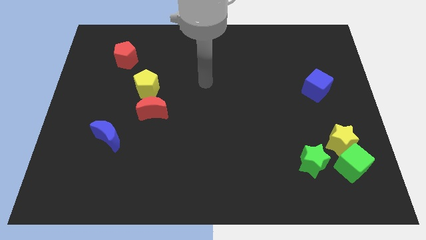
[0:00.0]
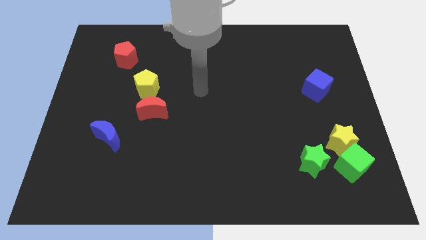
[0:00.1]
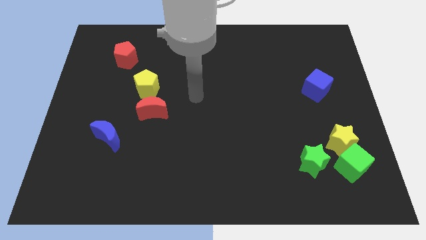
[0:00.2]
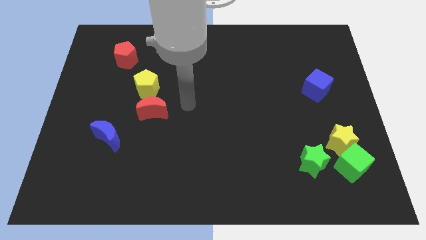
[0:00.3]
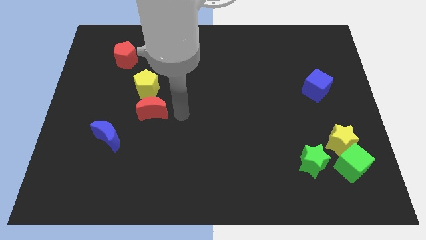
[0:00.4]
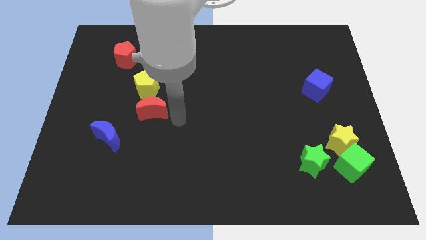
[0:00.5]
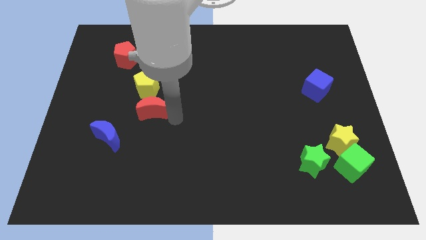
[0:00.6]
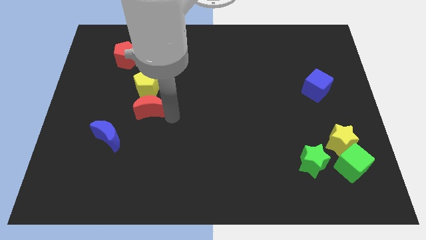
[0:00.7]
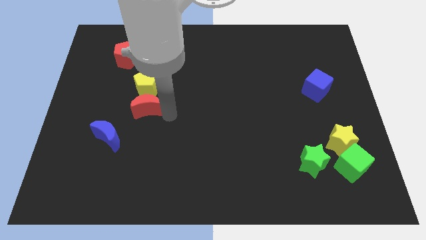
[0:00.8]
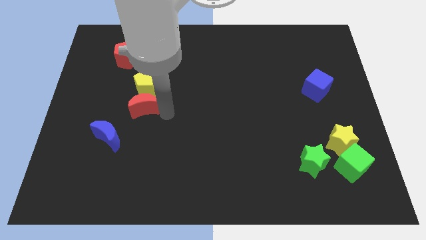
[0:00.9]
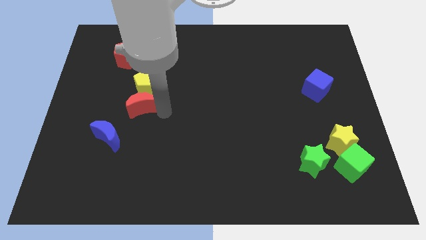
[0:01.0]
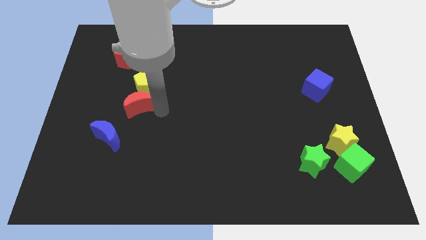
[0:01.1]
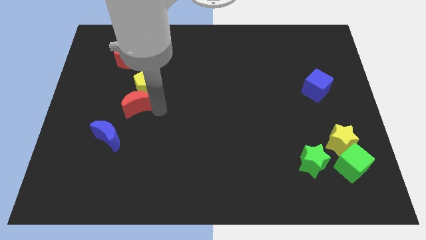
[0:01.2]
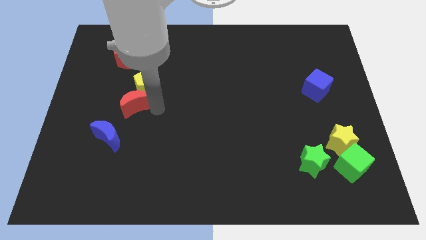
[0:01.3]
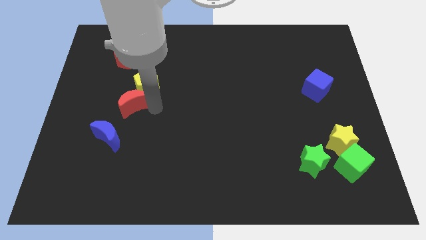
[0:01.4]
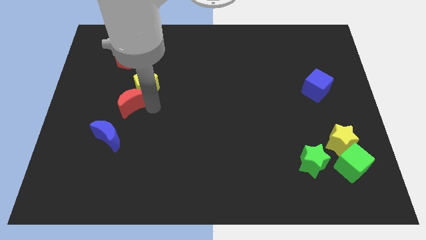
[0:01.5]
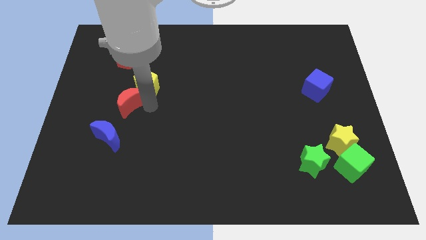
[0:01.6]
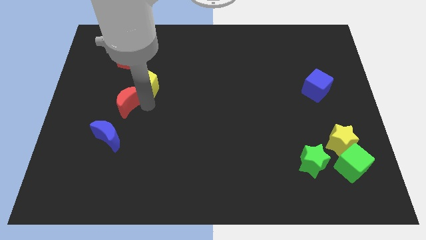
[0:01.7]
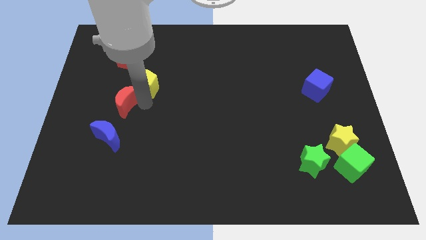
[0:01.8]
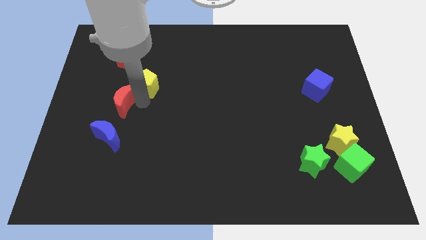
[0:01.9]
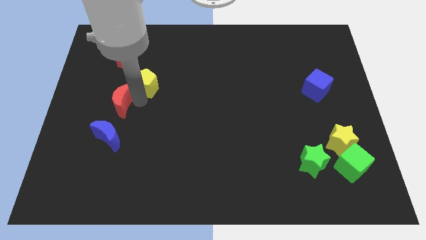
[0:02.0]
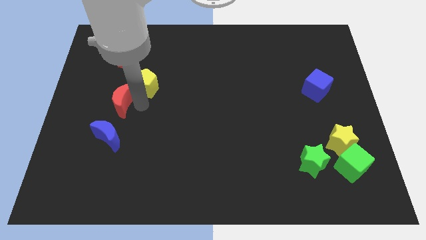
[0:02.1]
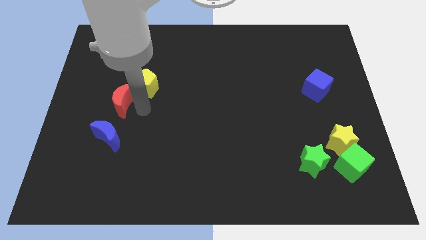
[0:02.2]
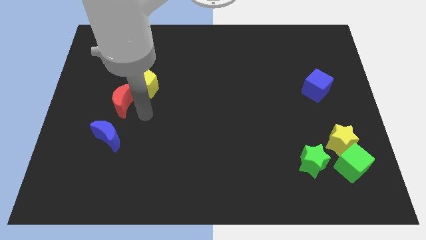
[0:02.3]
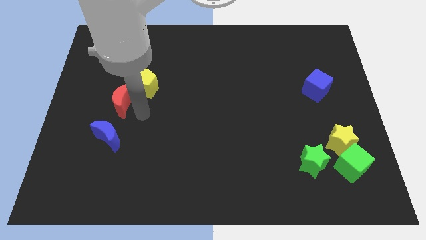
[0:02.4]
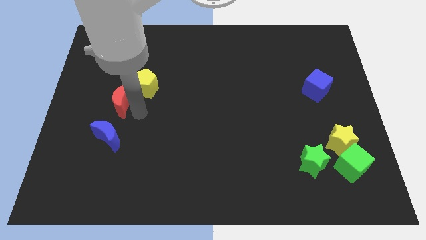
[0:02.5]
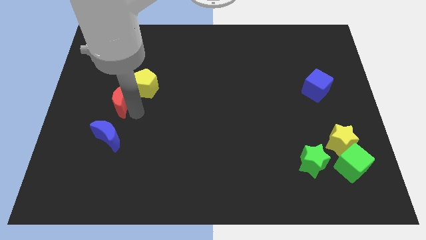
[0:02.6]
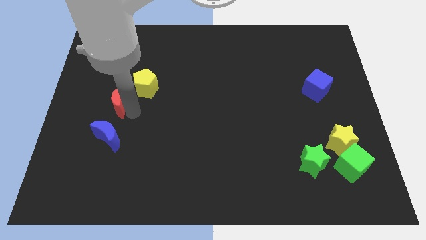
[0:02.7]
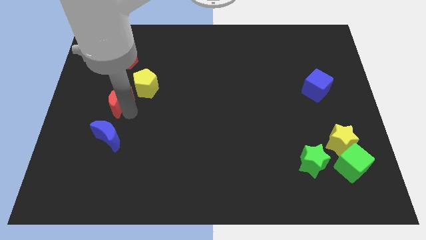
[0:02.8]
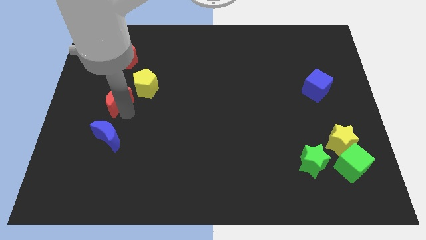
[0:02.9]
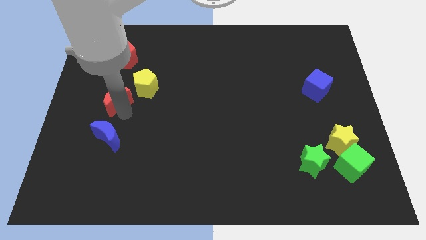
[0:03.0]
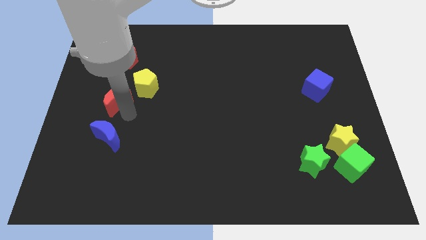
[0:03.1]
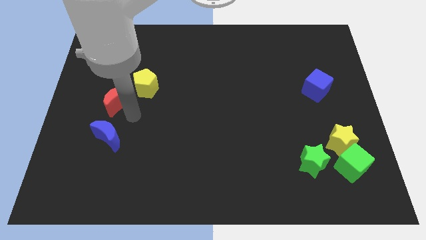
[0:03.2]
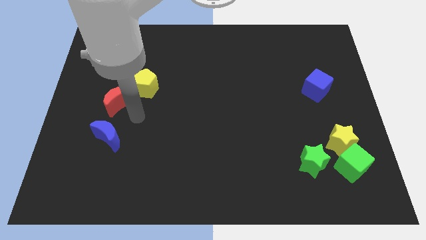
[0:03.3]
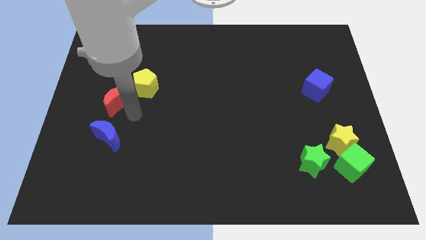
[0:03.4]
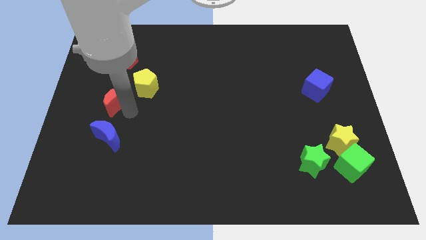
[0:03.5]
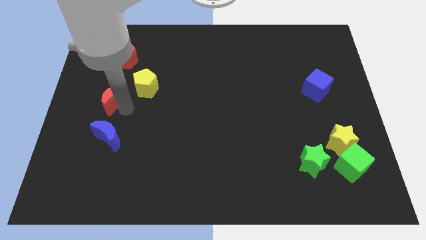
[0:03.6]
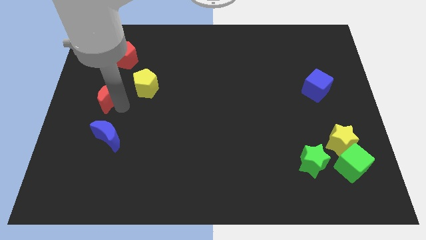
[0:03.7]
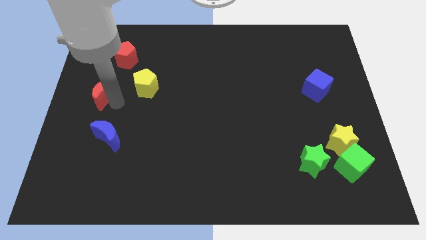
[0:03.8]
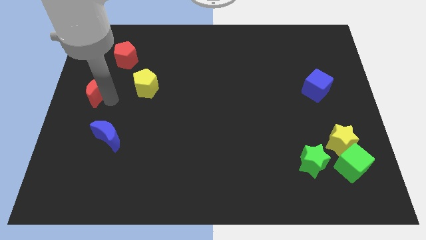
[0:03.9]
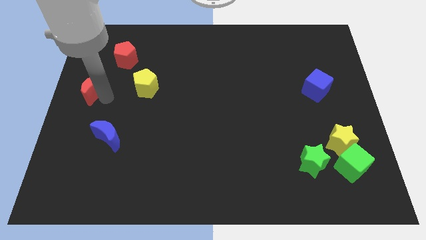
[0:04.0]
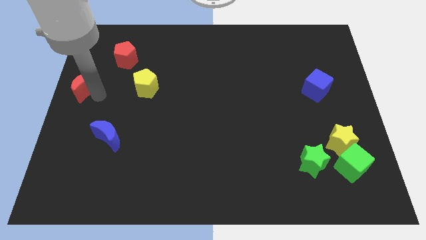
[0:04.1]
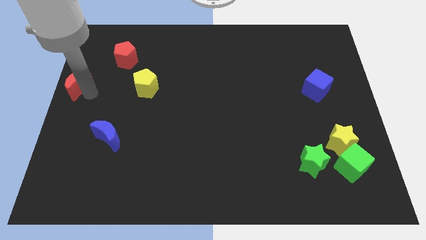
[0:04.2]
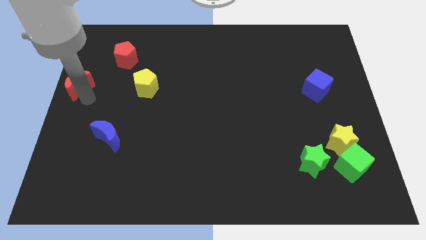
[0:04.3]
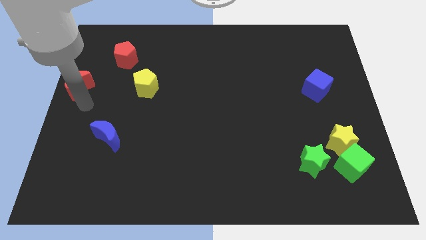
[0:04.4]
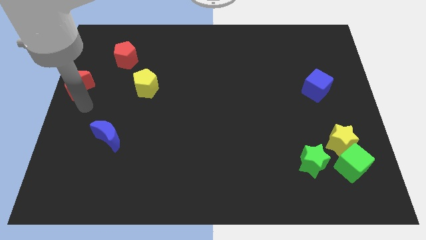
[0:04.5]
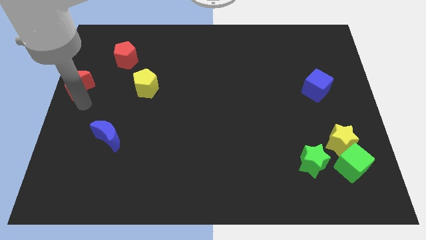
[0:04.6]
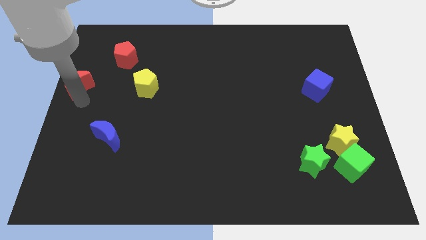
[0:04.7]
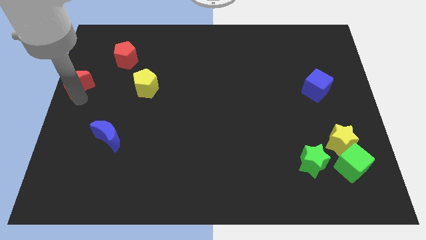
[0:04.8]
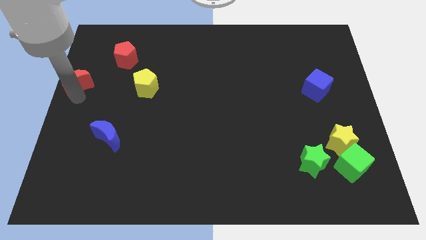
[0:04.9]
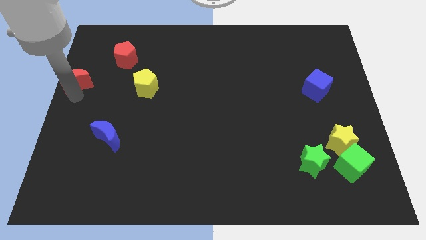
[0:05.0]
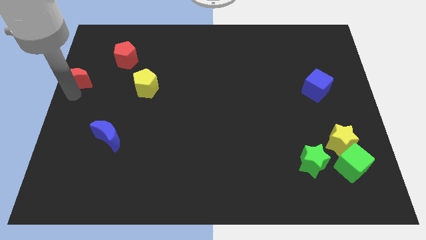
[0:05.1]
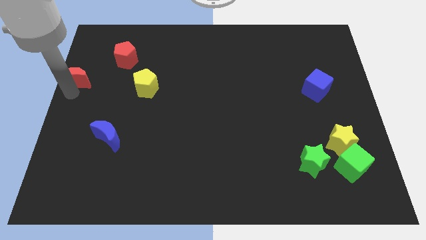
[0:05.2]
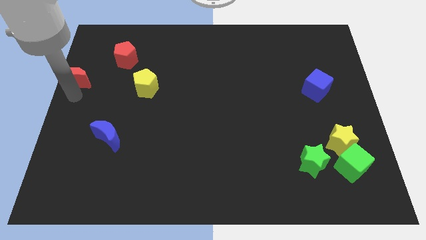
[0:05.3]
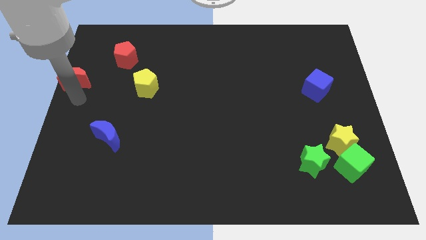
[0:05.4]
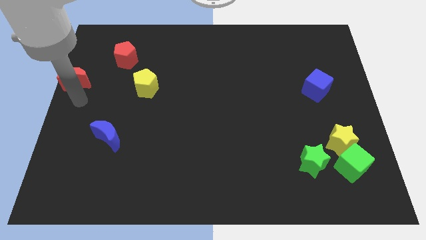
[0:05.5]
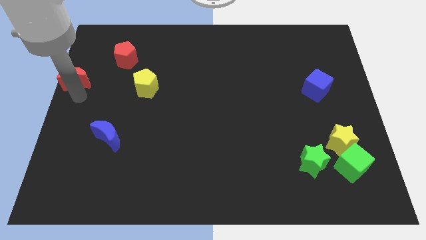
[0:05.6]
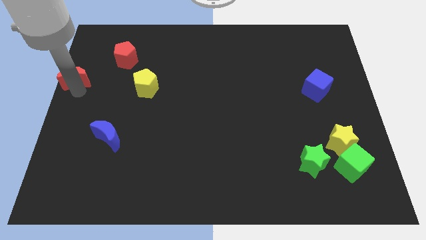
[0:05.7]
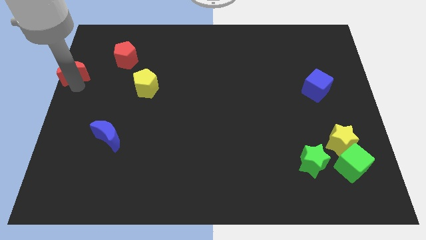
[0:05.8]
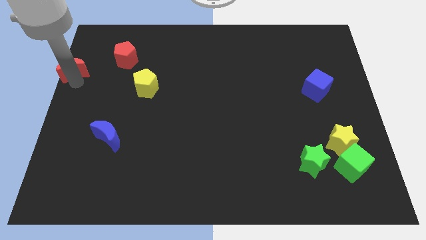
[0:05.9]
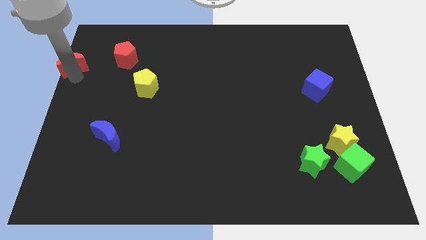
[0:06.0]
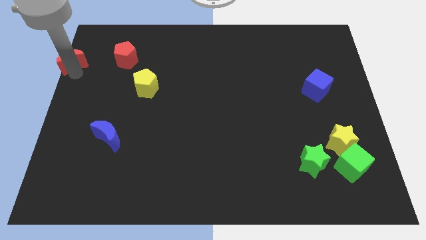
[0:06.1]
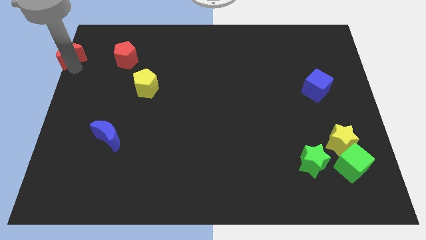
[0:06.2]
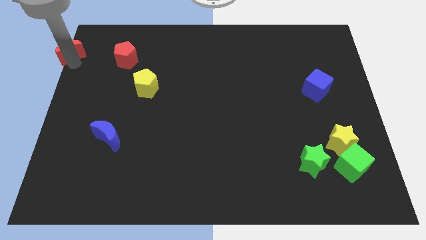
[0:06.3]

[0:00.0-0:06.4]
put the red moon to the top left
